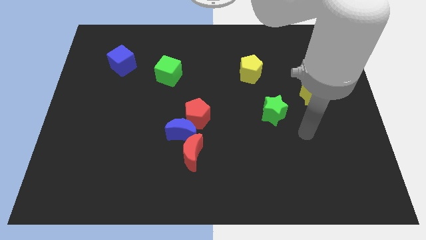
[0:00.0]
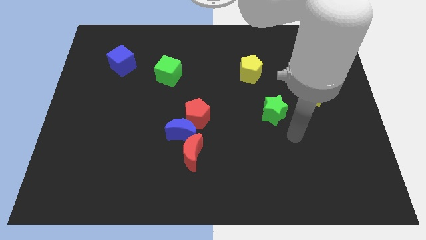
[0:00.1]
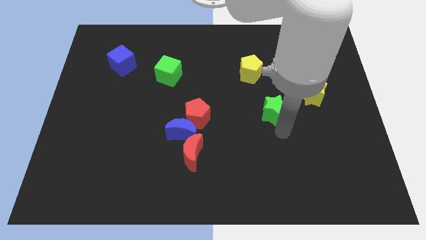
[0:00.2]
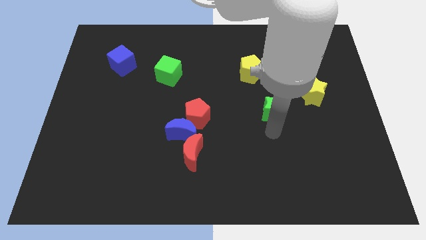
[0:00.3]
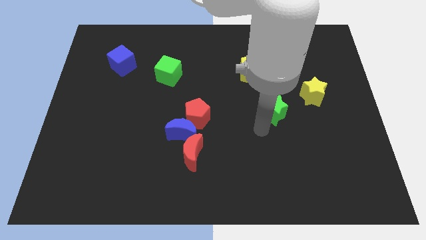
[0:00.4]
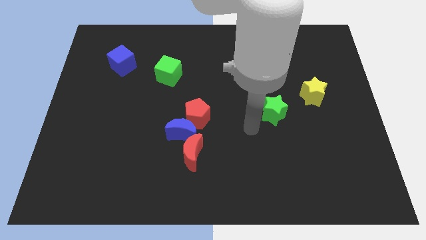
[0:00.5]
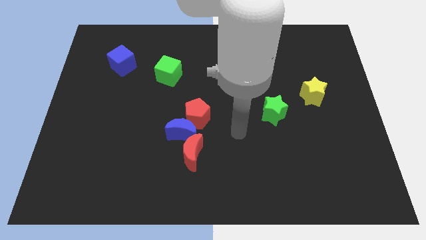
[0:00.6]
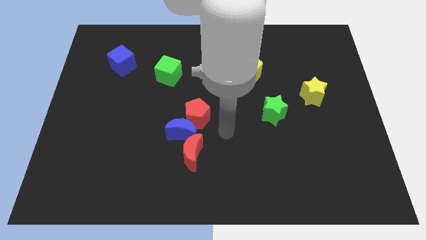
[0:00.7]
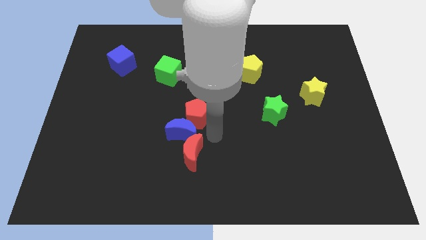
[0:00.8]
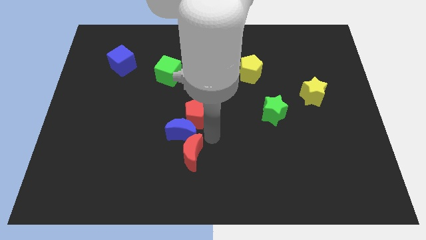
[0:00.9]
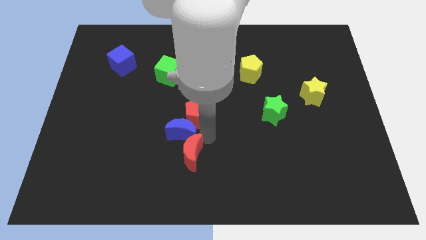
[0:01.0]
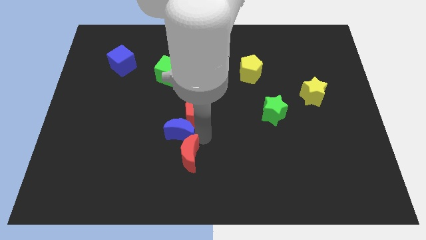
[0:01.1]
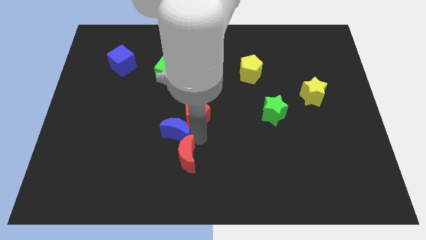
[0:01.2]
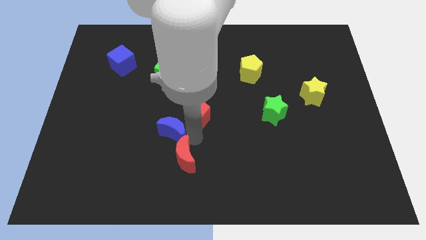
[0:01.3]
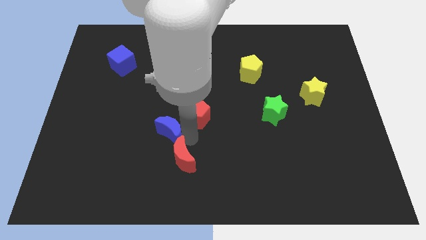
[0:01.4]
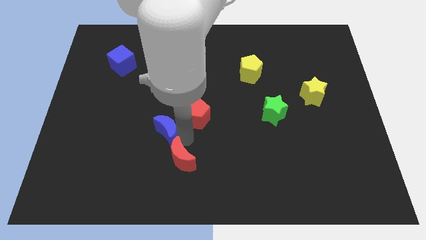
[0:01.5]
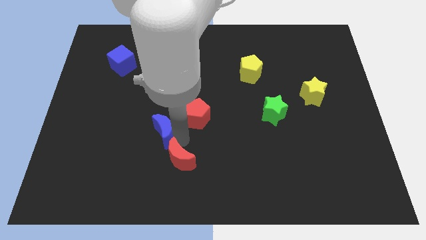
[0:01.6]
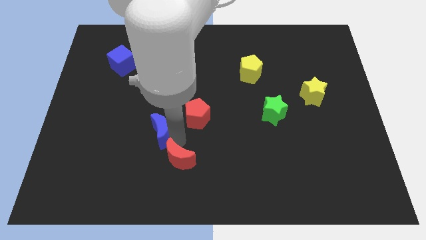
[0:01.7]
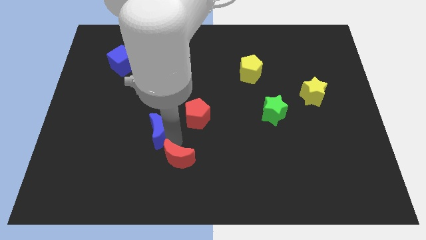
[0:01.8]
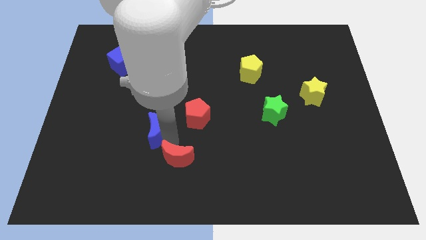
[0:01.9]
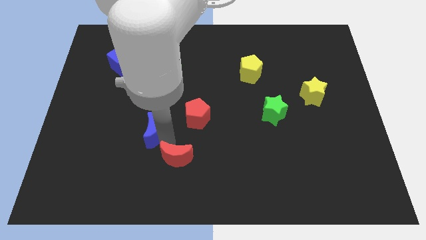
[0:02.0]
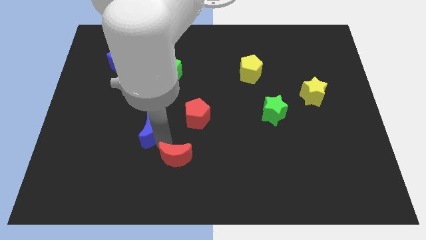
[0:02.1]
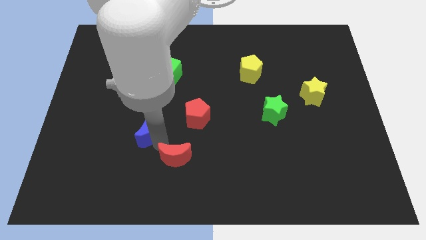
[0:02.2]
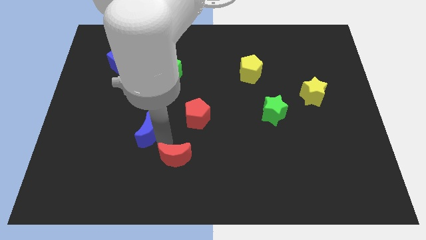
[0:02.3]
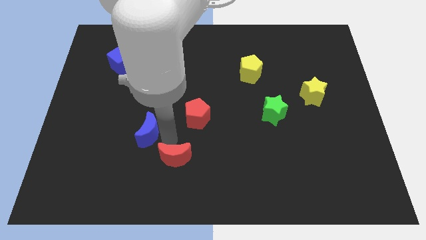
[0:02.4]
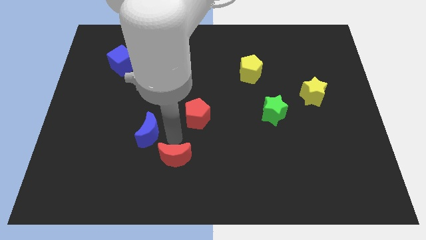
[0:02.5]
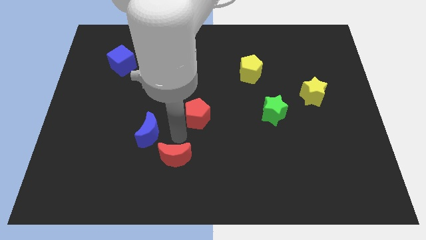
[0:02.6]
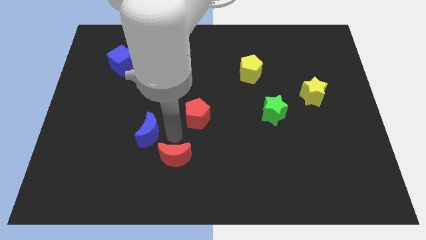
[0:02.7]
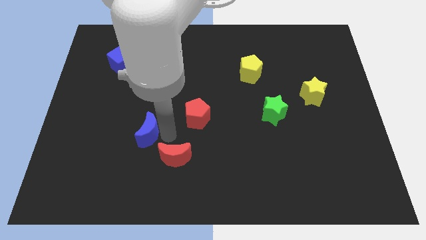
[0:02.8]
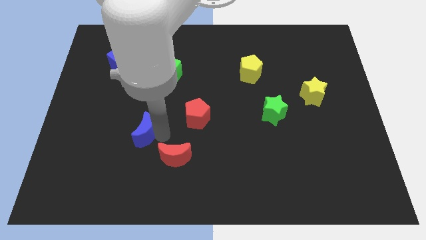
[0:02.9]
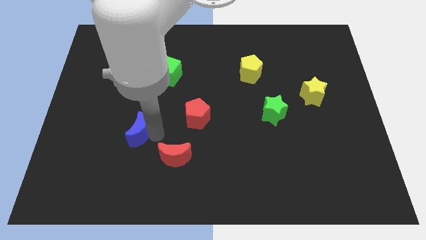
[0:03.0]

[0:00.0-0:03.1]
move the blue moon away from the red pentagon and red moon

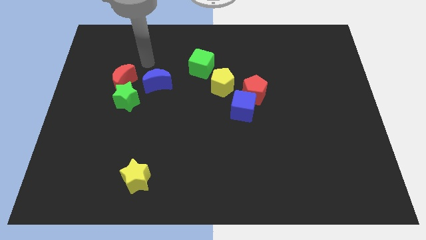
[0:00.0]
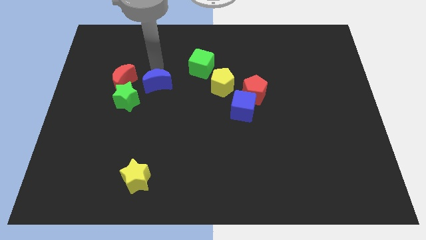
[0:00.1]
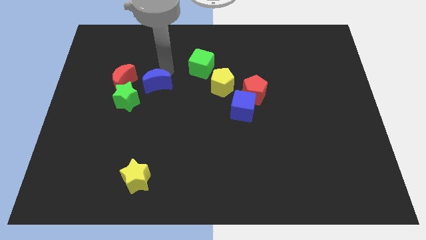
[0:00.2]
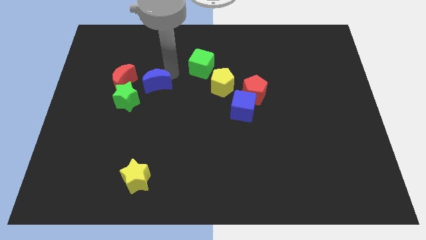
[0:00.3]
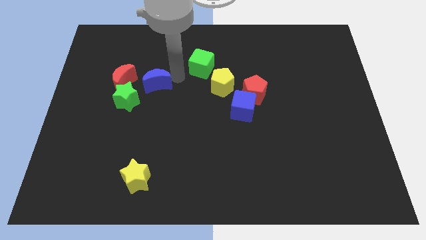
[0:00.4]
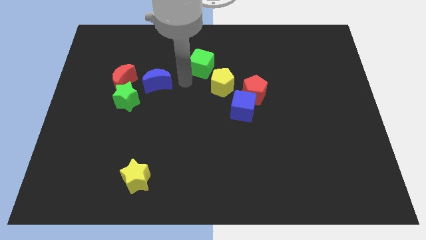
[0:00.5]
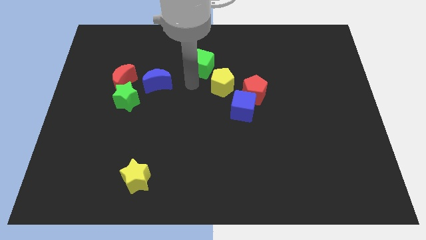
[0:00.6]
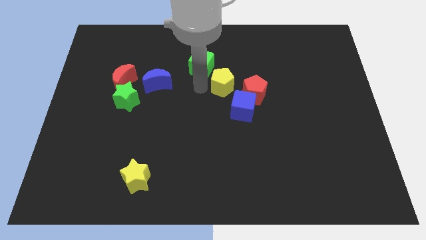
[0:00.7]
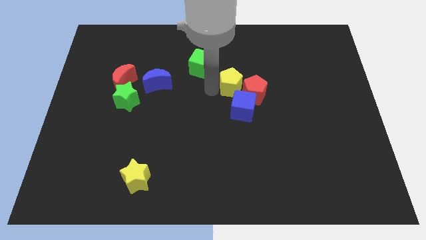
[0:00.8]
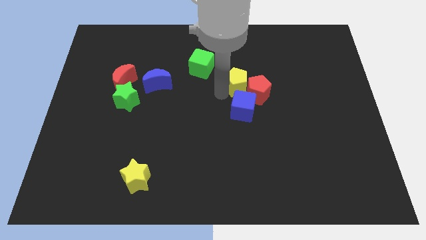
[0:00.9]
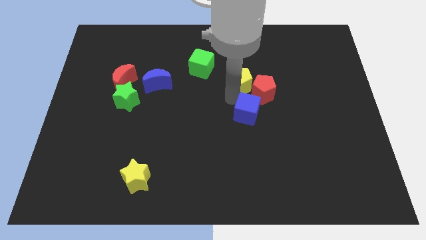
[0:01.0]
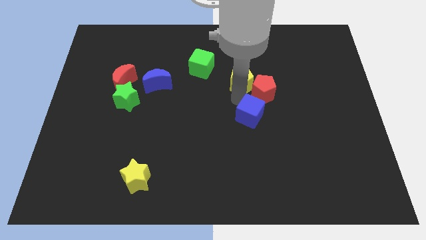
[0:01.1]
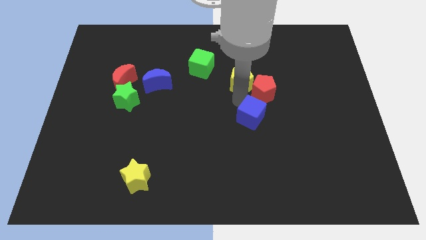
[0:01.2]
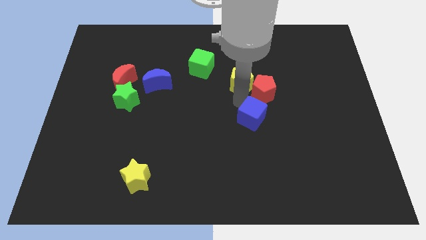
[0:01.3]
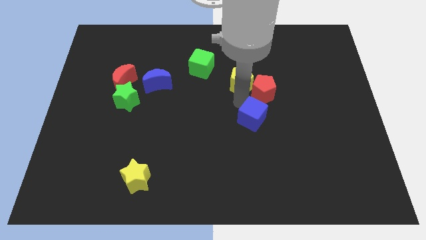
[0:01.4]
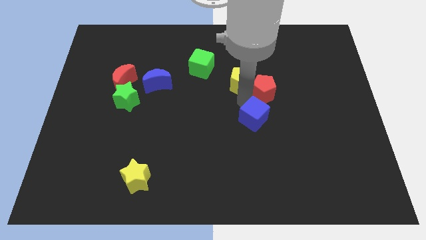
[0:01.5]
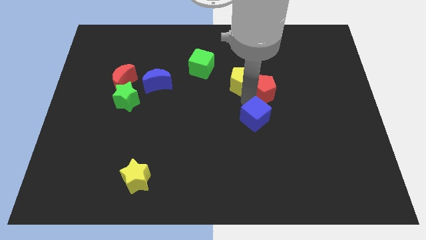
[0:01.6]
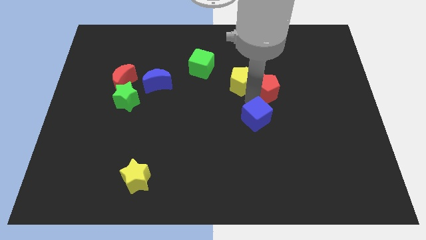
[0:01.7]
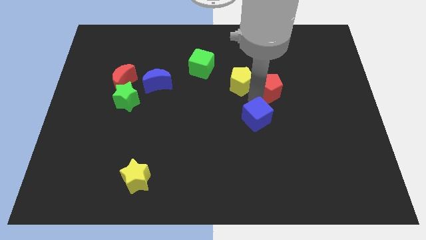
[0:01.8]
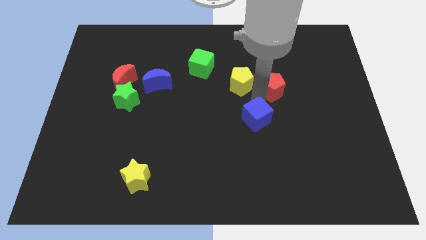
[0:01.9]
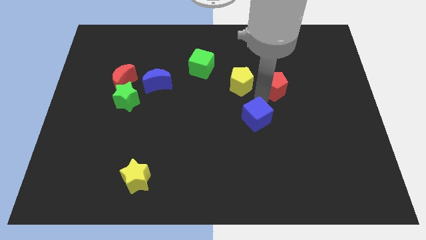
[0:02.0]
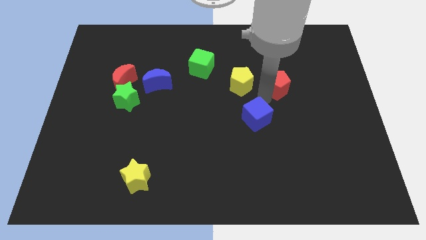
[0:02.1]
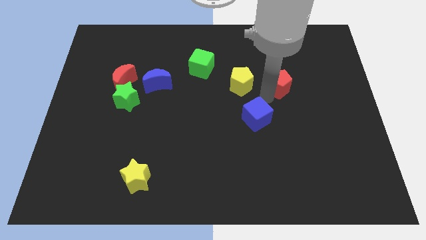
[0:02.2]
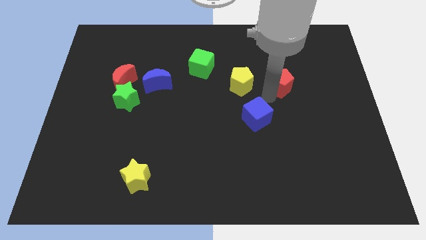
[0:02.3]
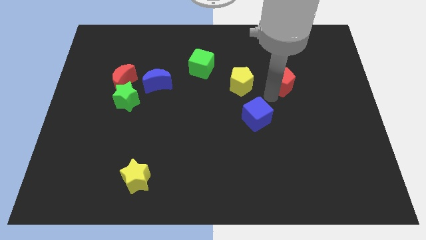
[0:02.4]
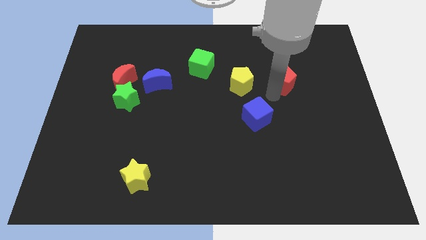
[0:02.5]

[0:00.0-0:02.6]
pull the red pentagon apart from the blue cube and yellow pentagon

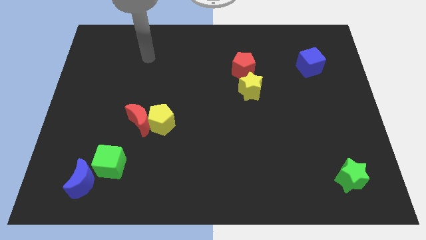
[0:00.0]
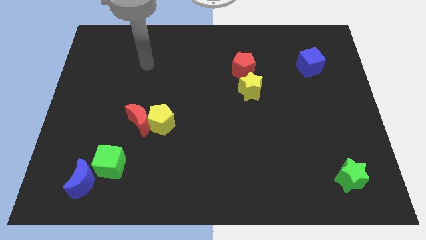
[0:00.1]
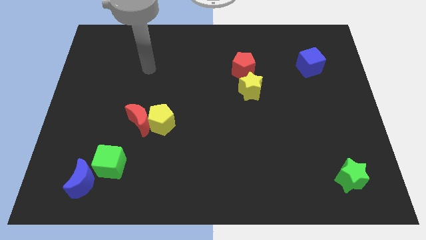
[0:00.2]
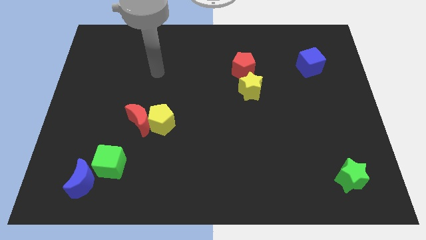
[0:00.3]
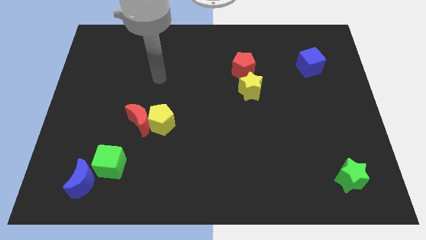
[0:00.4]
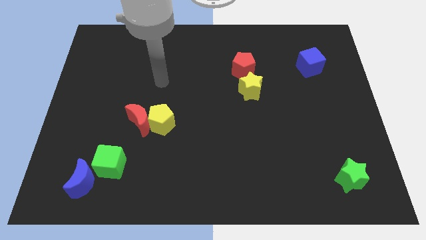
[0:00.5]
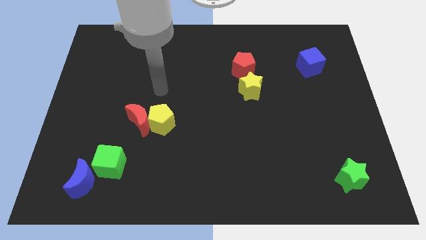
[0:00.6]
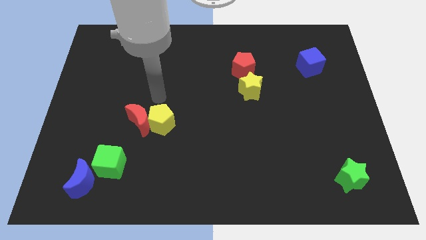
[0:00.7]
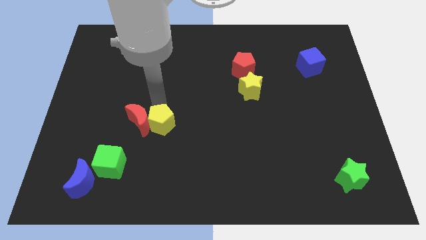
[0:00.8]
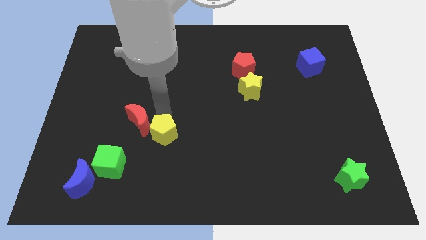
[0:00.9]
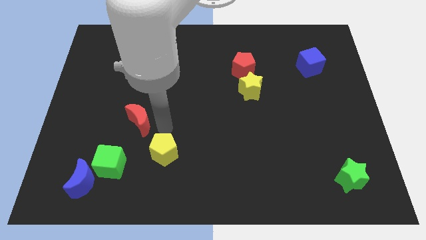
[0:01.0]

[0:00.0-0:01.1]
move the red moon away from the yellow pentagon

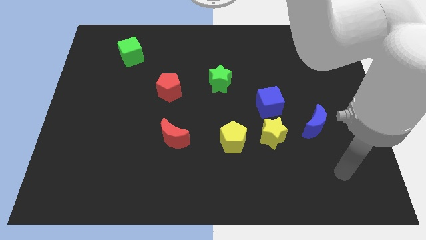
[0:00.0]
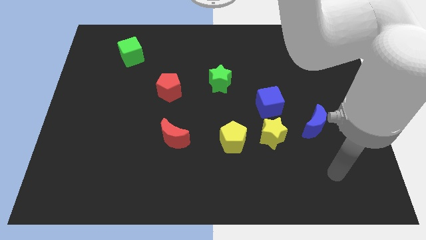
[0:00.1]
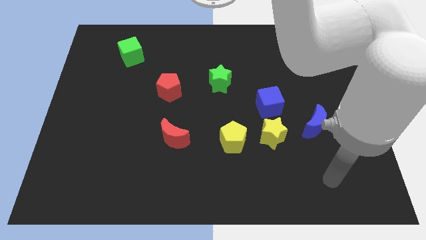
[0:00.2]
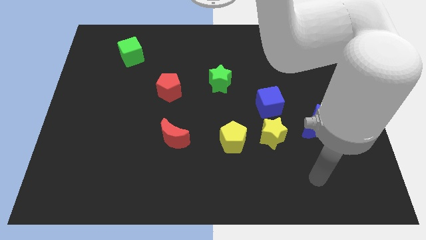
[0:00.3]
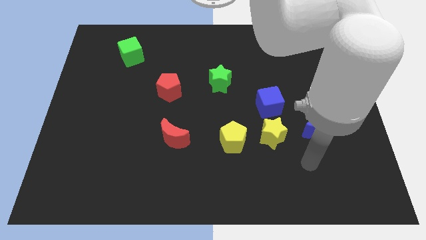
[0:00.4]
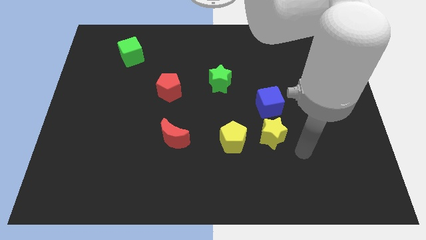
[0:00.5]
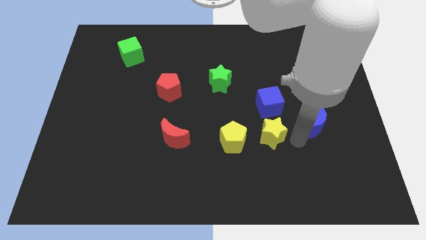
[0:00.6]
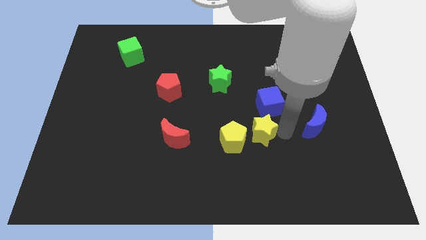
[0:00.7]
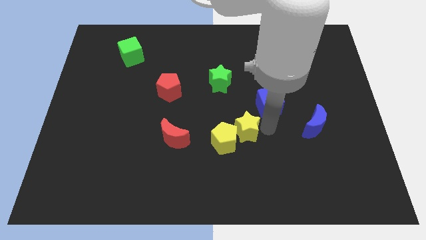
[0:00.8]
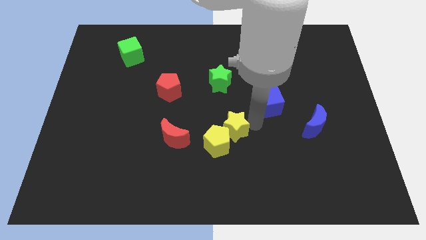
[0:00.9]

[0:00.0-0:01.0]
pull the blue cube apart from the yellow star

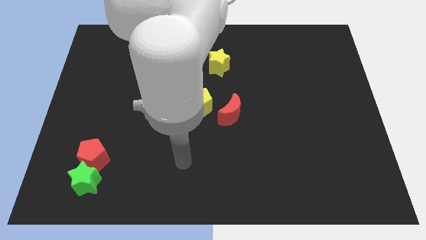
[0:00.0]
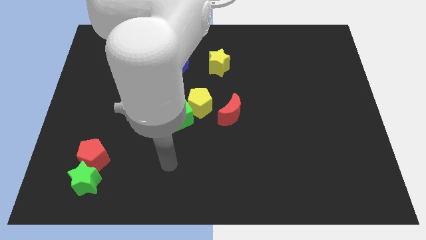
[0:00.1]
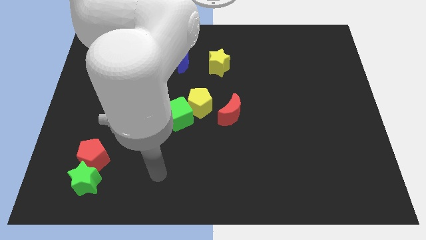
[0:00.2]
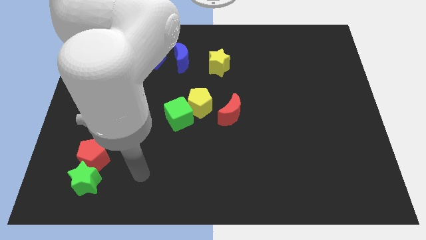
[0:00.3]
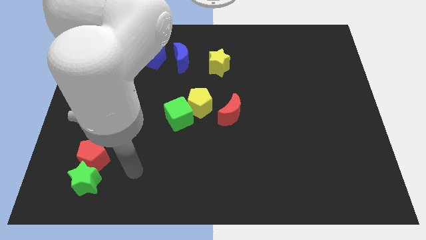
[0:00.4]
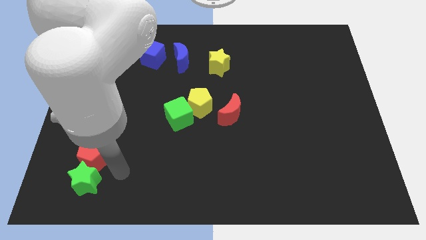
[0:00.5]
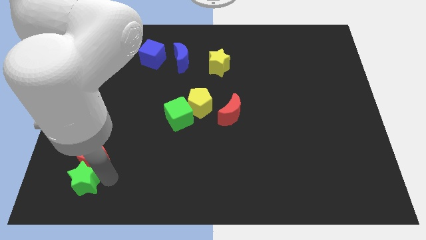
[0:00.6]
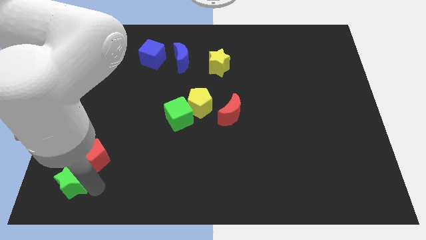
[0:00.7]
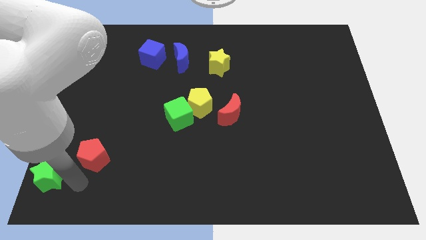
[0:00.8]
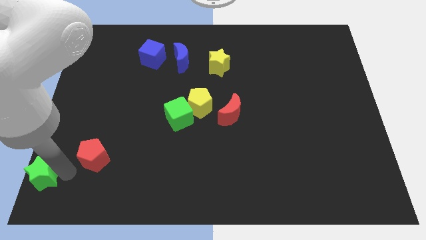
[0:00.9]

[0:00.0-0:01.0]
move the red pentagon away from the green star

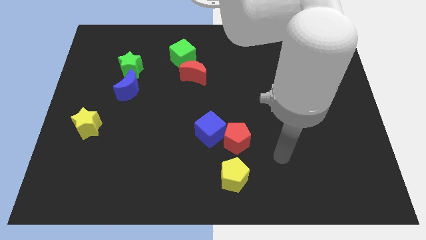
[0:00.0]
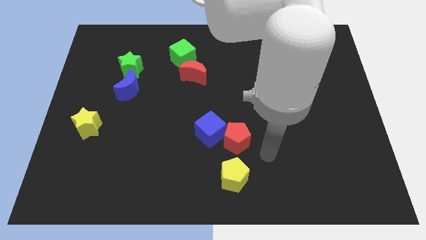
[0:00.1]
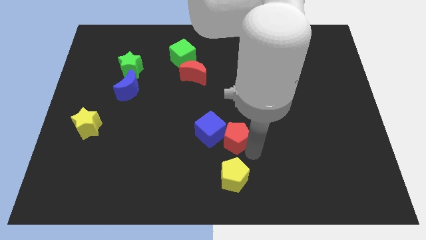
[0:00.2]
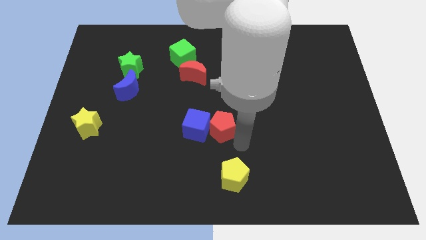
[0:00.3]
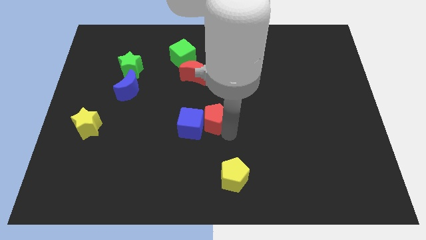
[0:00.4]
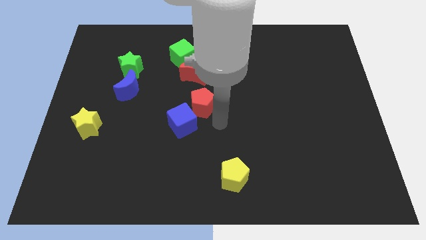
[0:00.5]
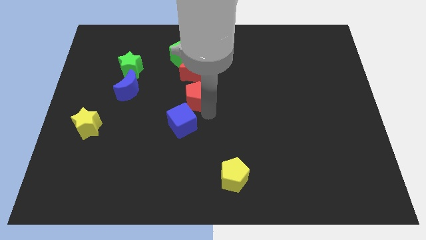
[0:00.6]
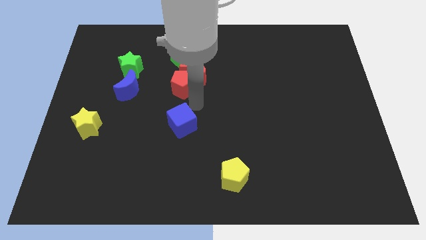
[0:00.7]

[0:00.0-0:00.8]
separate the blue cube from the red pentagon
